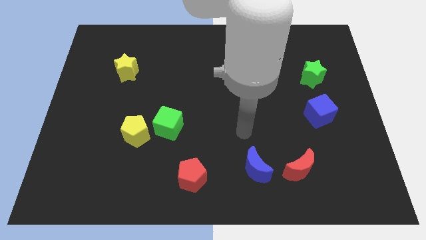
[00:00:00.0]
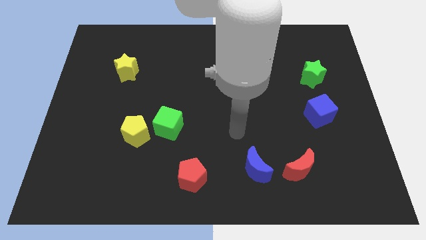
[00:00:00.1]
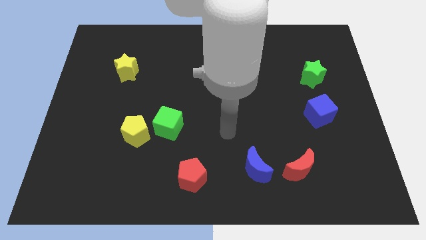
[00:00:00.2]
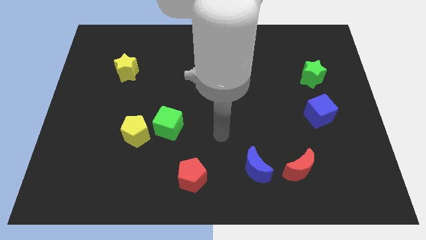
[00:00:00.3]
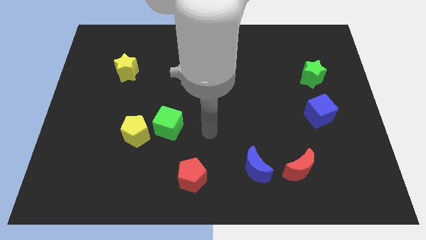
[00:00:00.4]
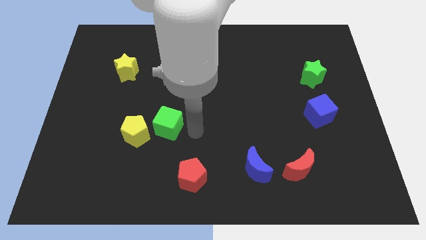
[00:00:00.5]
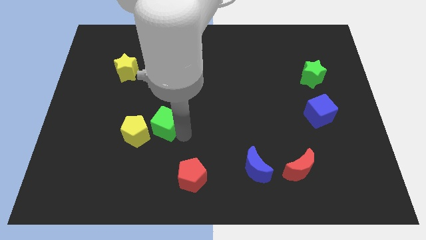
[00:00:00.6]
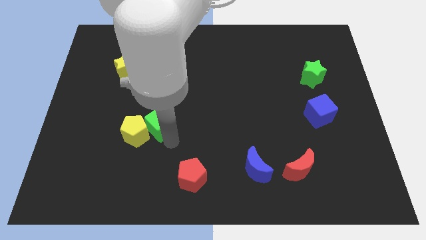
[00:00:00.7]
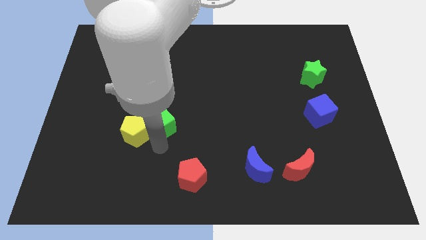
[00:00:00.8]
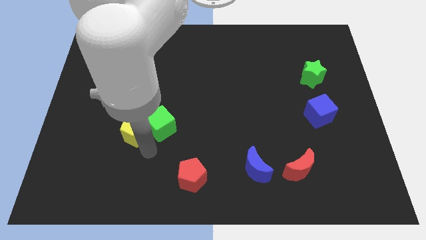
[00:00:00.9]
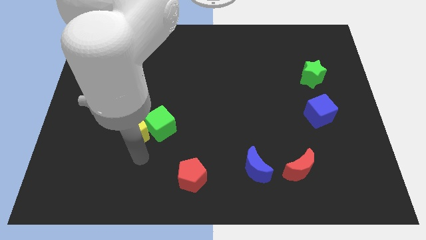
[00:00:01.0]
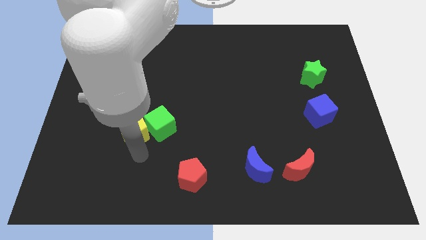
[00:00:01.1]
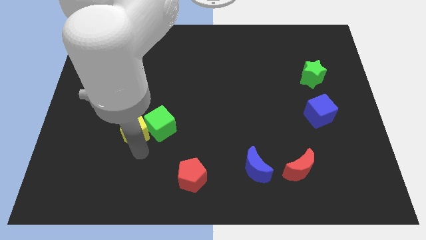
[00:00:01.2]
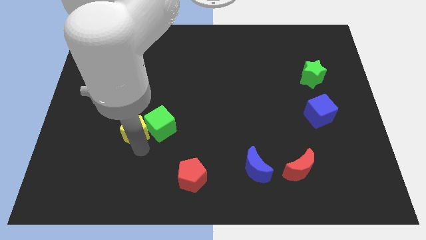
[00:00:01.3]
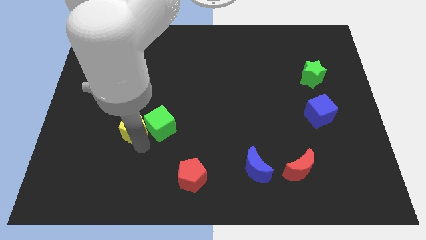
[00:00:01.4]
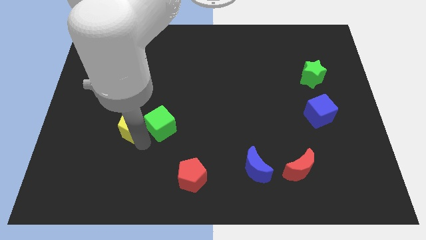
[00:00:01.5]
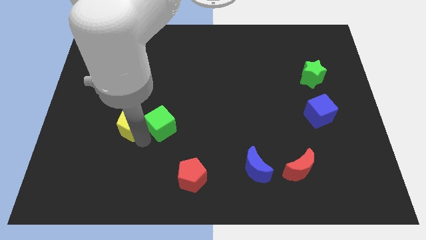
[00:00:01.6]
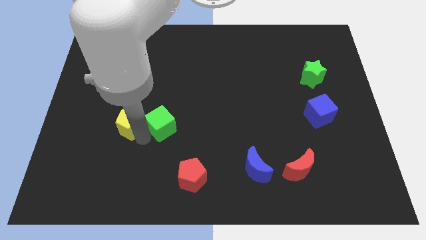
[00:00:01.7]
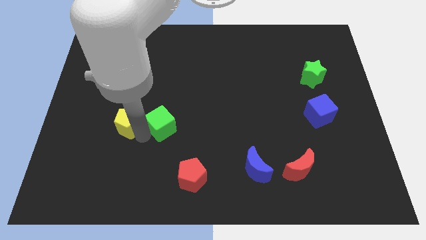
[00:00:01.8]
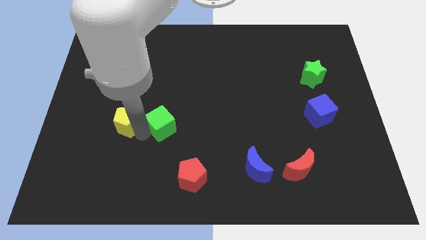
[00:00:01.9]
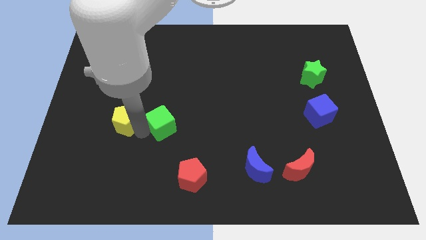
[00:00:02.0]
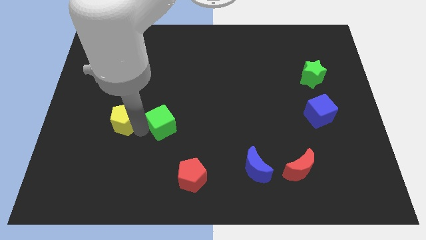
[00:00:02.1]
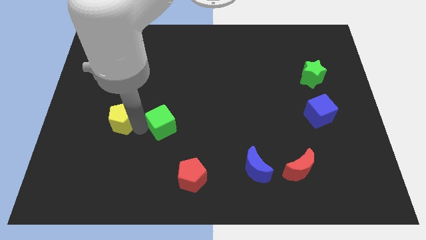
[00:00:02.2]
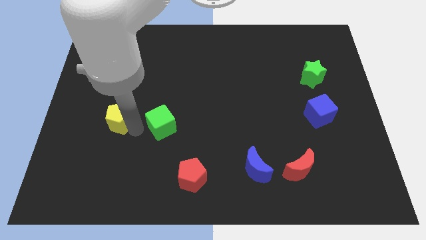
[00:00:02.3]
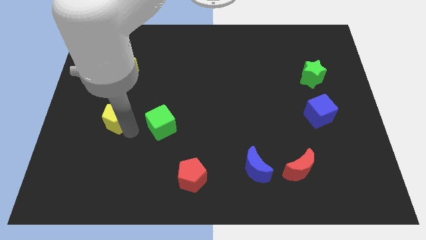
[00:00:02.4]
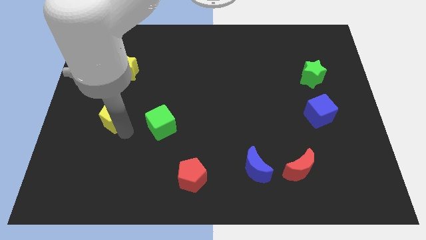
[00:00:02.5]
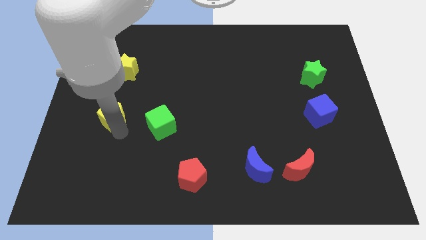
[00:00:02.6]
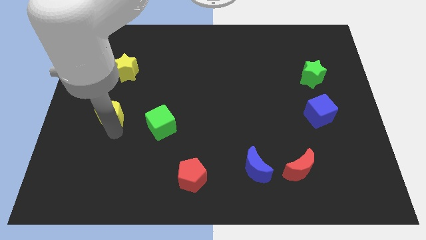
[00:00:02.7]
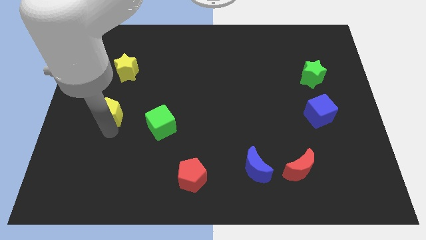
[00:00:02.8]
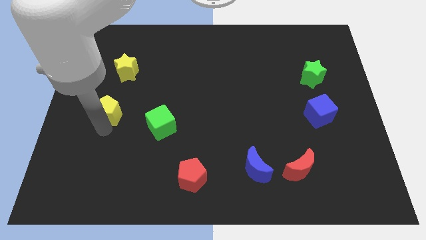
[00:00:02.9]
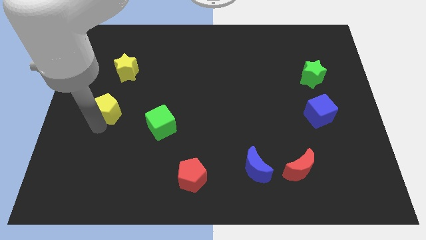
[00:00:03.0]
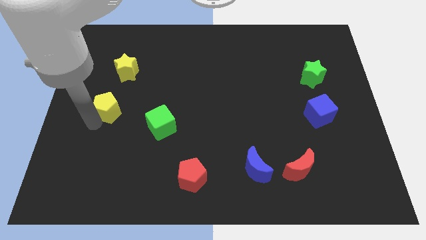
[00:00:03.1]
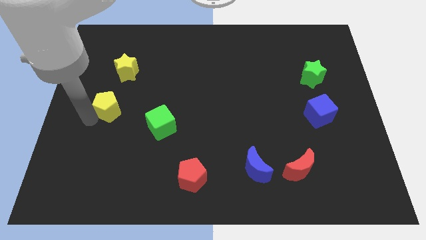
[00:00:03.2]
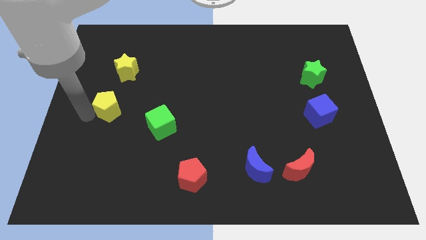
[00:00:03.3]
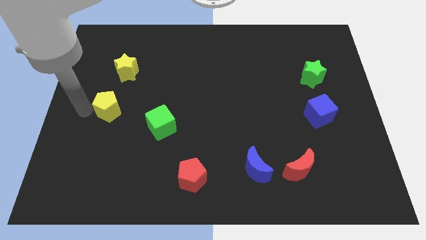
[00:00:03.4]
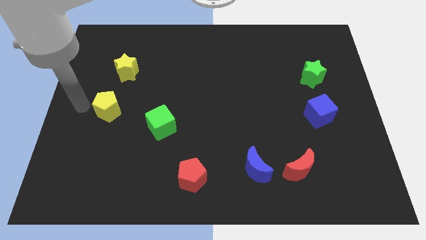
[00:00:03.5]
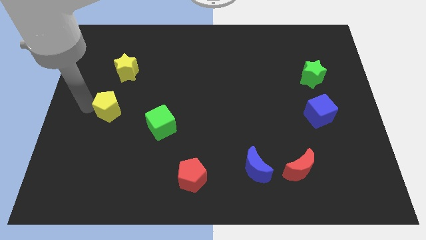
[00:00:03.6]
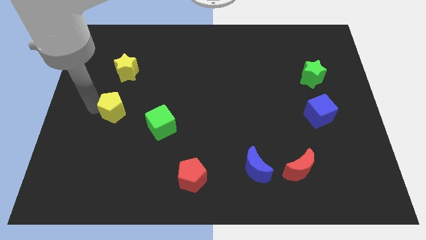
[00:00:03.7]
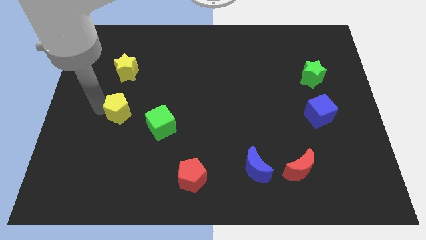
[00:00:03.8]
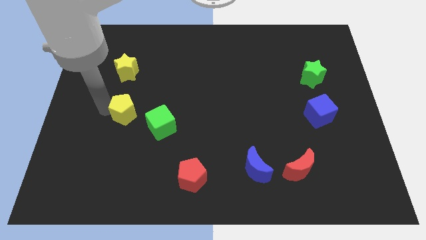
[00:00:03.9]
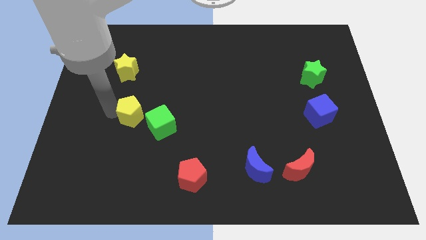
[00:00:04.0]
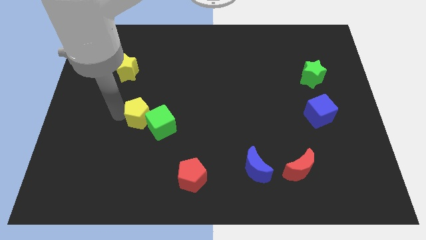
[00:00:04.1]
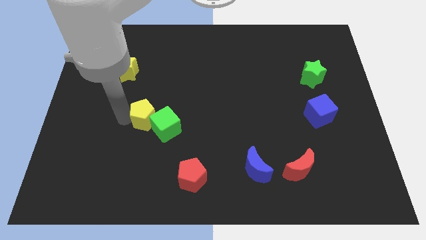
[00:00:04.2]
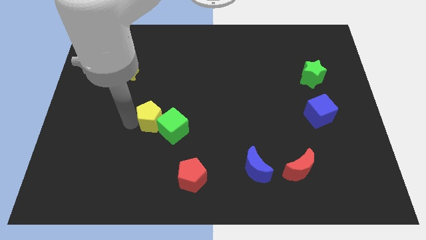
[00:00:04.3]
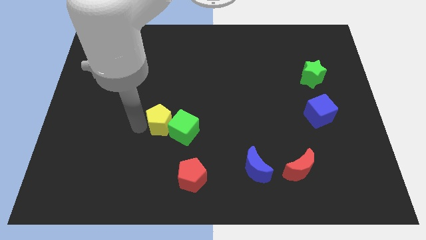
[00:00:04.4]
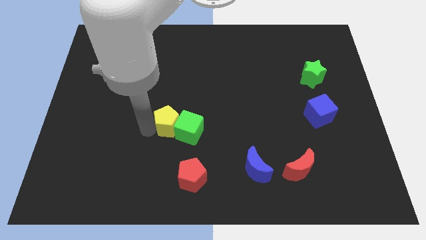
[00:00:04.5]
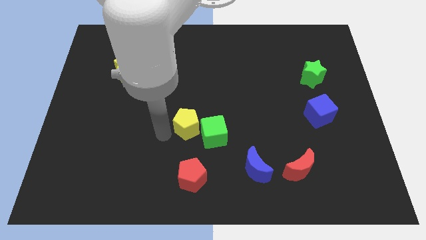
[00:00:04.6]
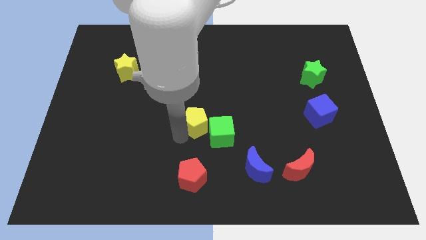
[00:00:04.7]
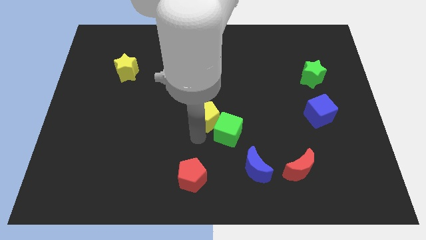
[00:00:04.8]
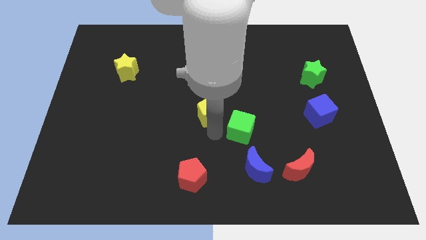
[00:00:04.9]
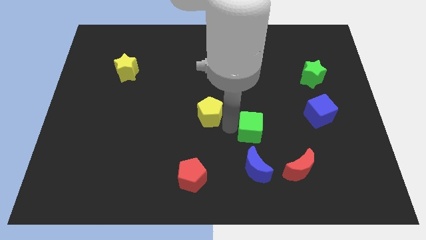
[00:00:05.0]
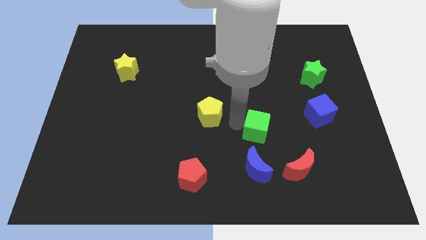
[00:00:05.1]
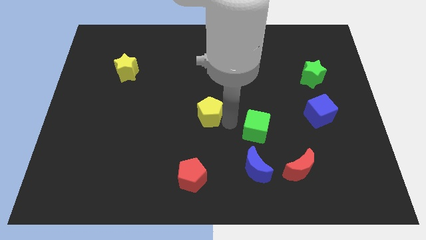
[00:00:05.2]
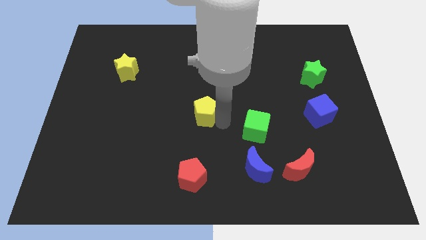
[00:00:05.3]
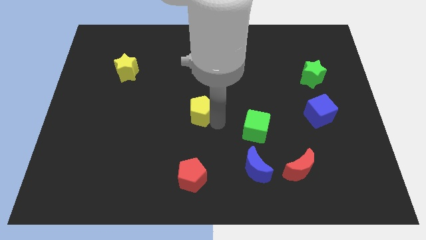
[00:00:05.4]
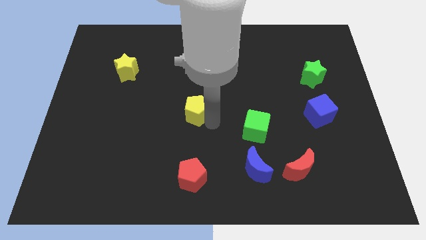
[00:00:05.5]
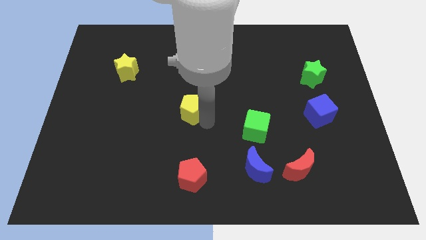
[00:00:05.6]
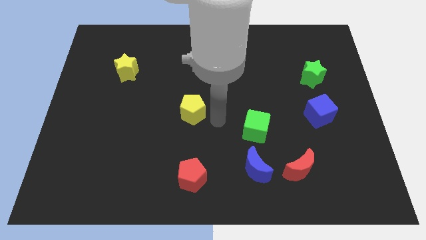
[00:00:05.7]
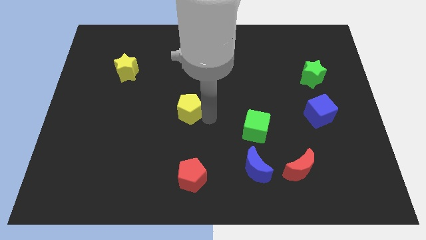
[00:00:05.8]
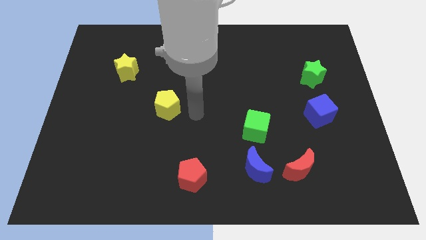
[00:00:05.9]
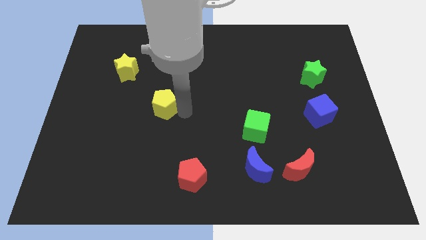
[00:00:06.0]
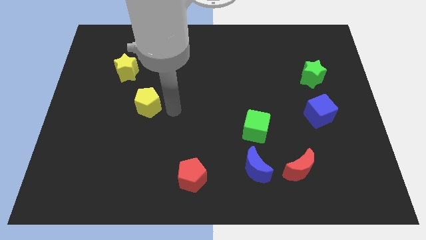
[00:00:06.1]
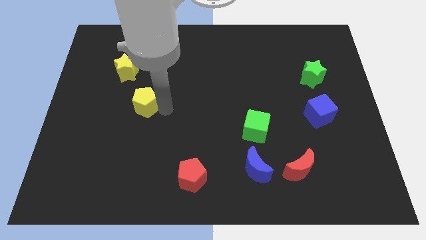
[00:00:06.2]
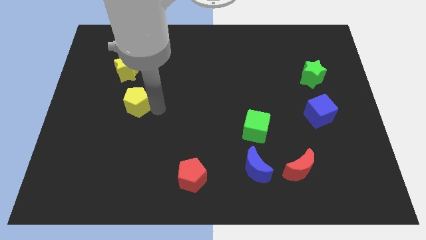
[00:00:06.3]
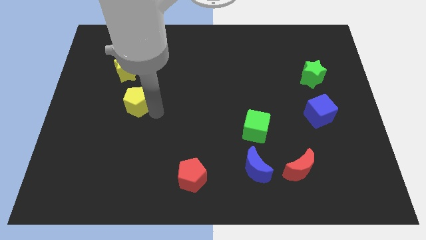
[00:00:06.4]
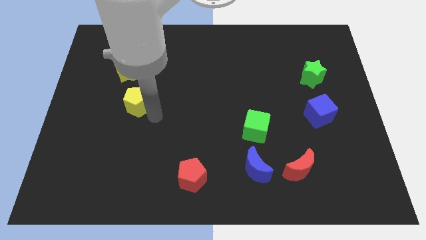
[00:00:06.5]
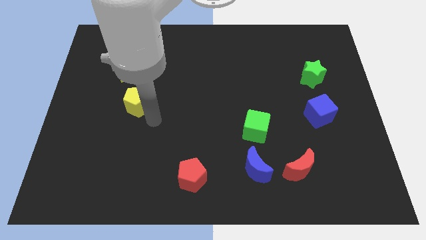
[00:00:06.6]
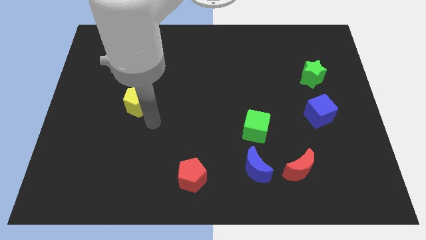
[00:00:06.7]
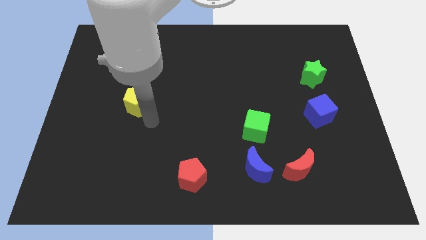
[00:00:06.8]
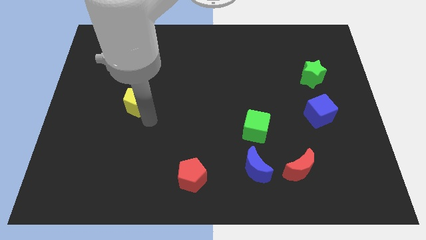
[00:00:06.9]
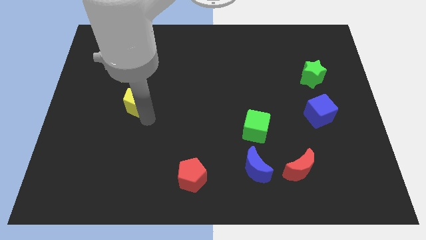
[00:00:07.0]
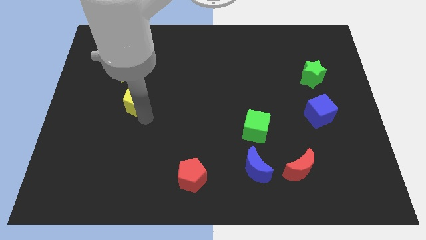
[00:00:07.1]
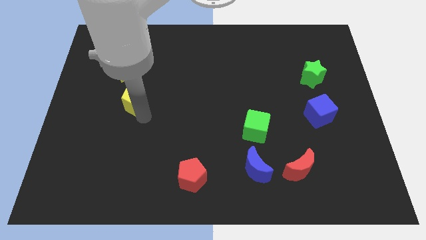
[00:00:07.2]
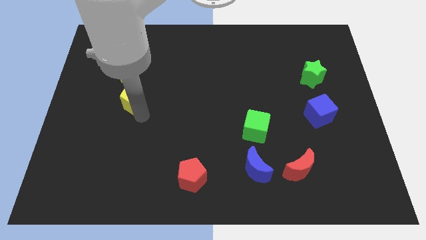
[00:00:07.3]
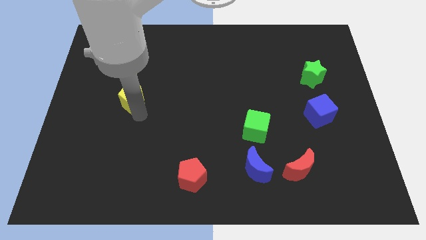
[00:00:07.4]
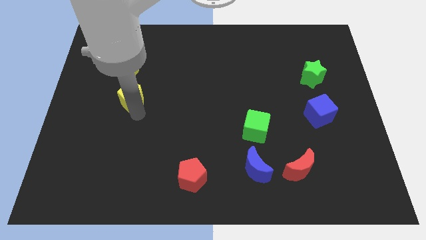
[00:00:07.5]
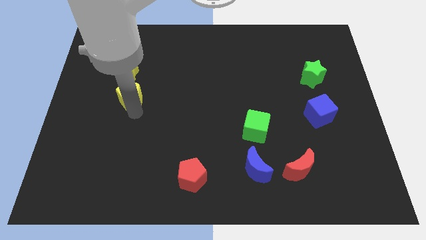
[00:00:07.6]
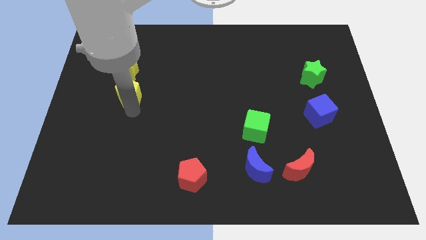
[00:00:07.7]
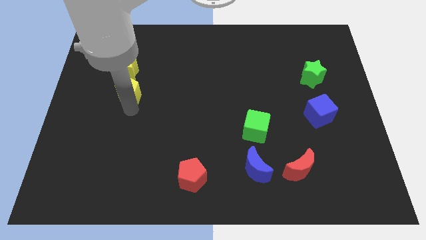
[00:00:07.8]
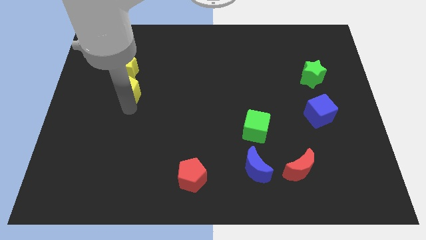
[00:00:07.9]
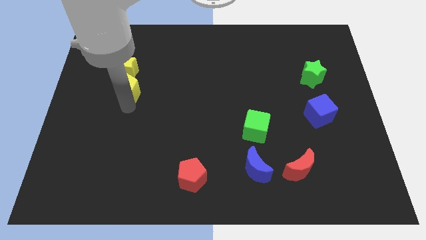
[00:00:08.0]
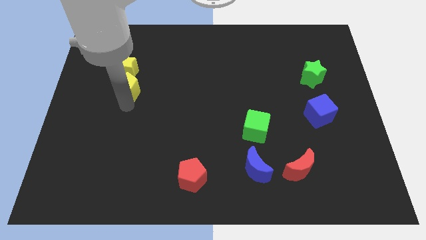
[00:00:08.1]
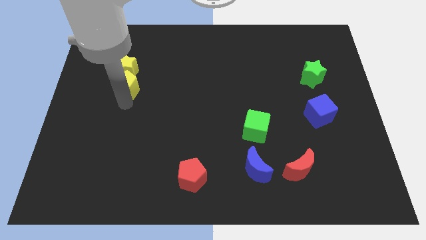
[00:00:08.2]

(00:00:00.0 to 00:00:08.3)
push the yellow pentagon next to the yellow star
